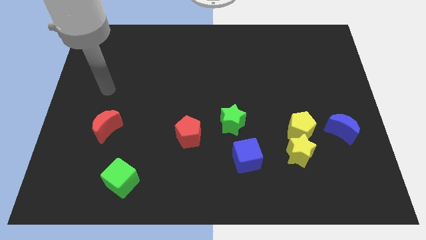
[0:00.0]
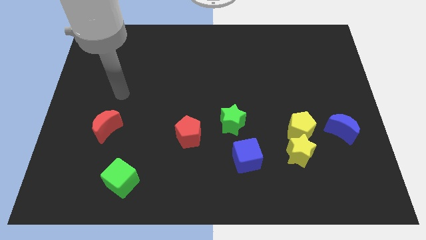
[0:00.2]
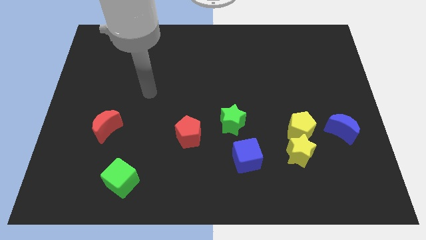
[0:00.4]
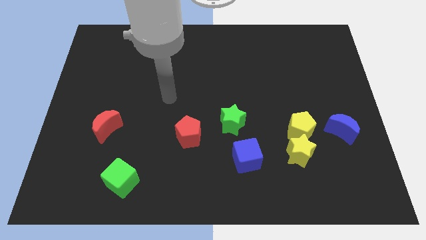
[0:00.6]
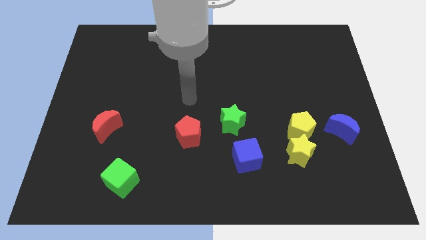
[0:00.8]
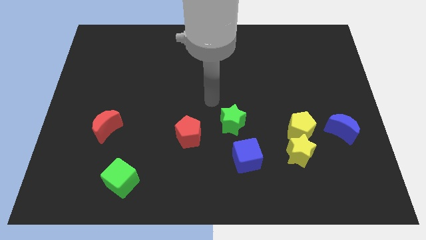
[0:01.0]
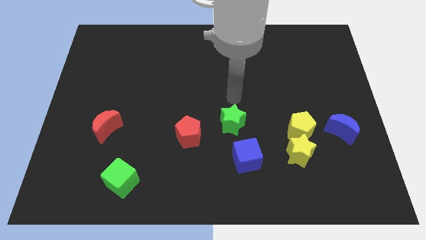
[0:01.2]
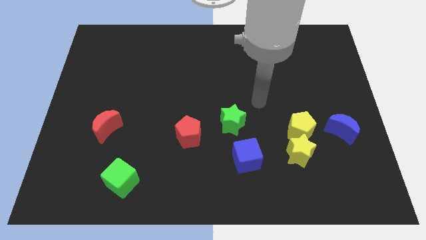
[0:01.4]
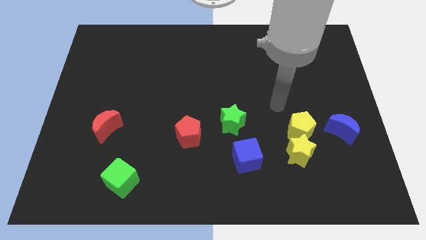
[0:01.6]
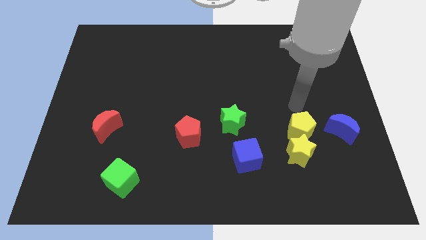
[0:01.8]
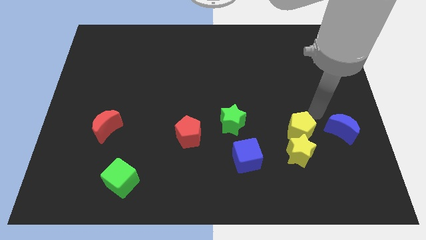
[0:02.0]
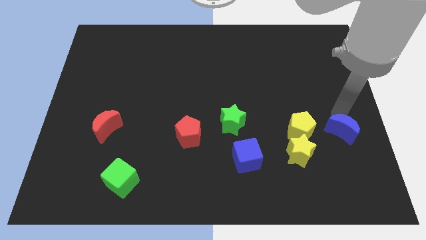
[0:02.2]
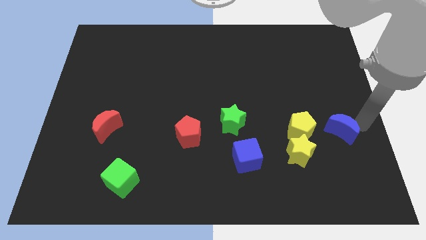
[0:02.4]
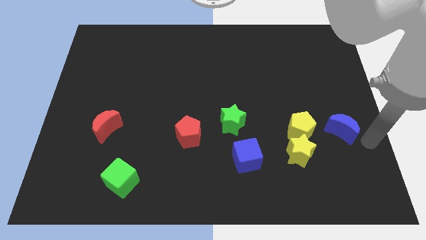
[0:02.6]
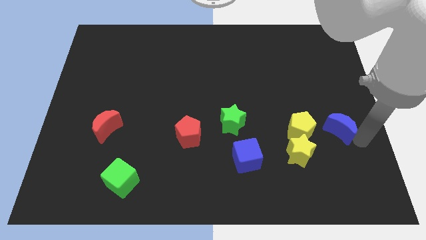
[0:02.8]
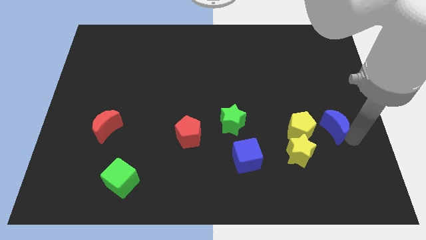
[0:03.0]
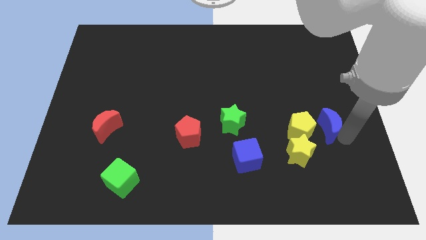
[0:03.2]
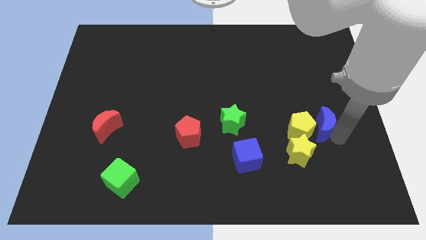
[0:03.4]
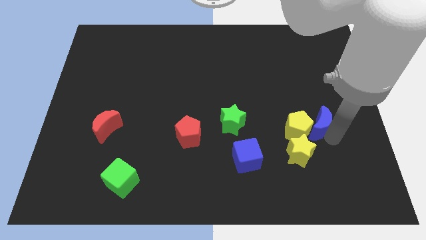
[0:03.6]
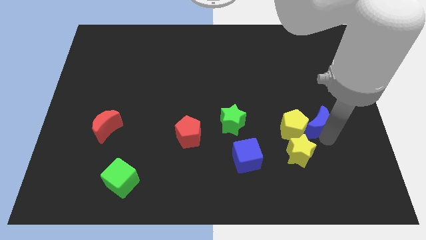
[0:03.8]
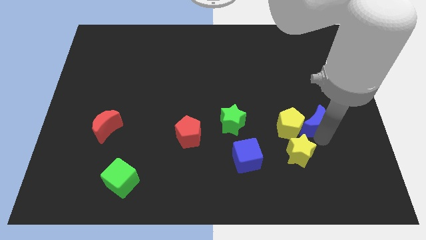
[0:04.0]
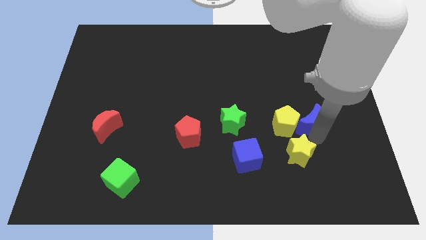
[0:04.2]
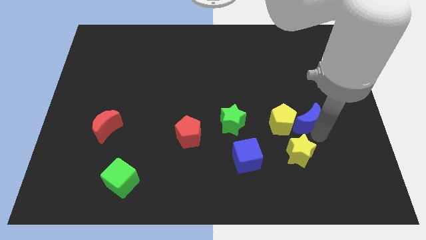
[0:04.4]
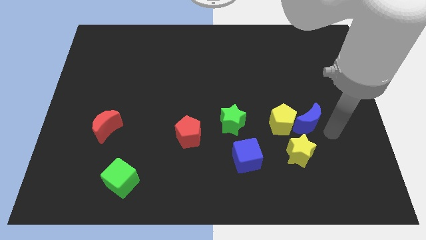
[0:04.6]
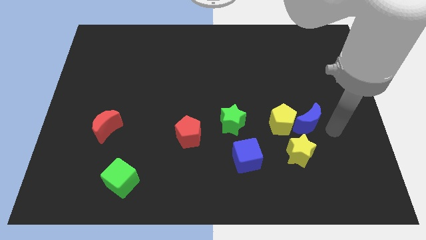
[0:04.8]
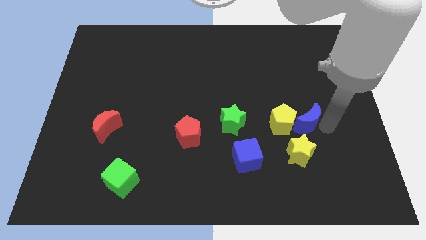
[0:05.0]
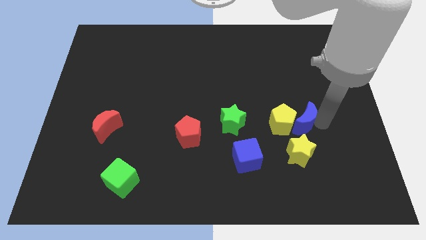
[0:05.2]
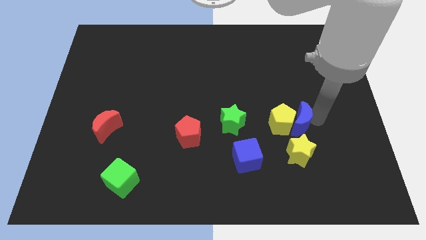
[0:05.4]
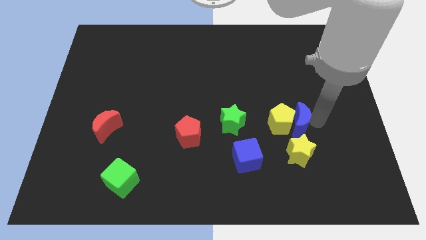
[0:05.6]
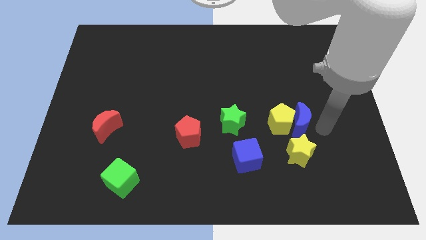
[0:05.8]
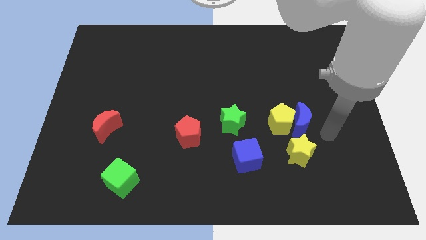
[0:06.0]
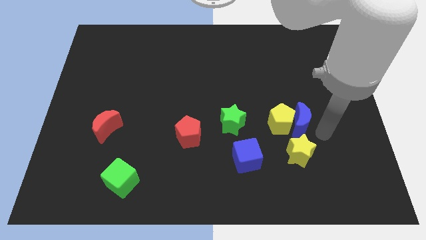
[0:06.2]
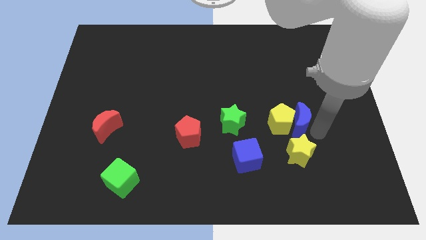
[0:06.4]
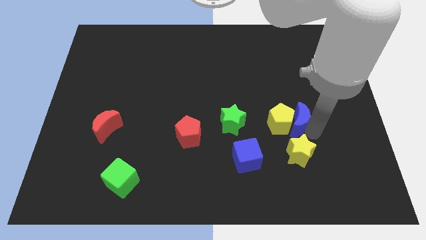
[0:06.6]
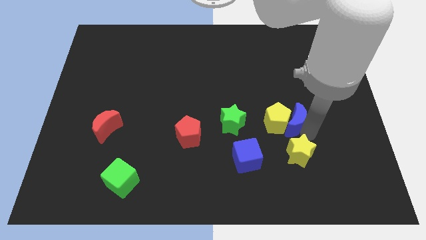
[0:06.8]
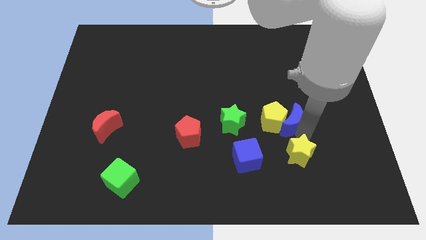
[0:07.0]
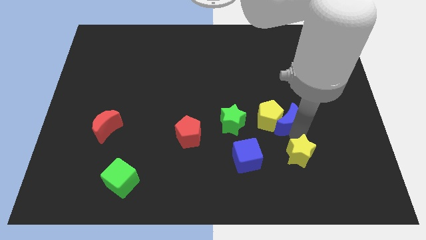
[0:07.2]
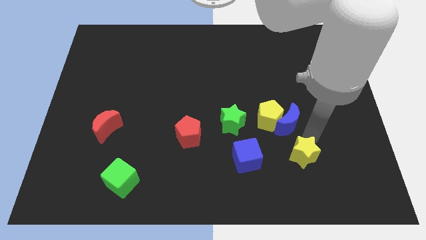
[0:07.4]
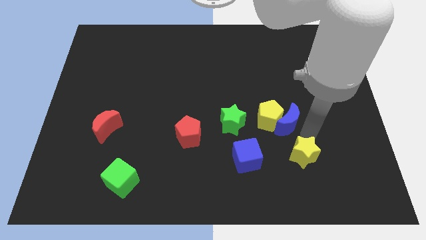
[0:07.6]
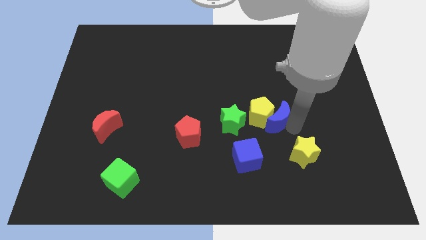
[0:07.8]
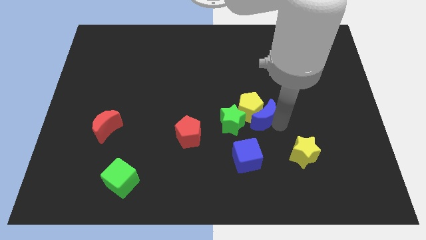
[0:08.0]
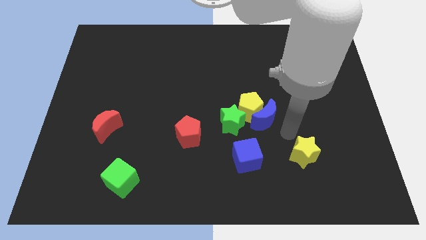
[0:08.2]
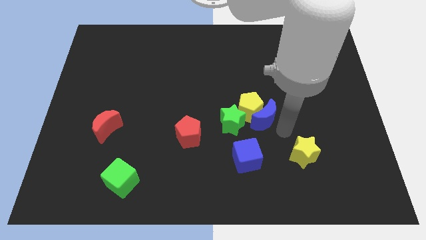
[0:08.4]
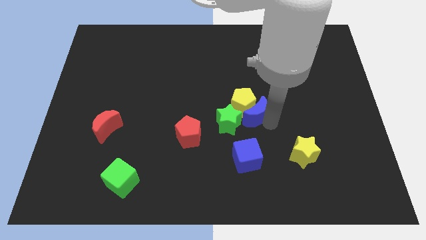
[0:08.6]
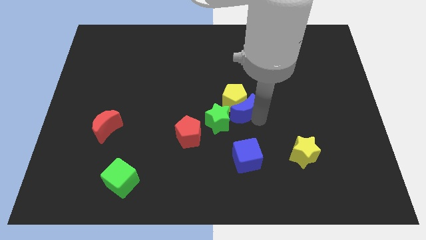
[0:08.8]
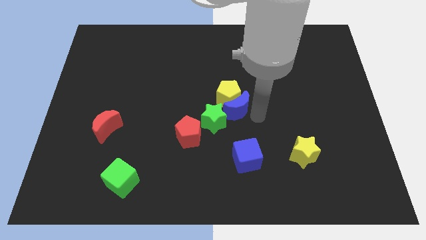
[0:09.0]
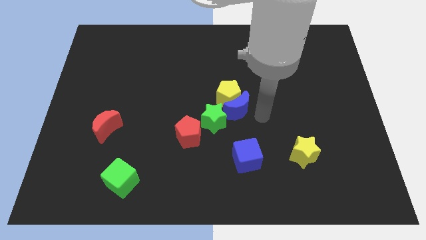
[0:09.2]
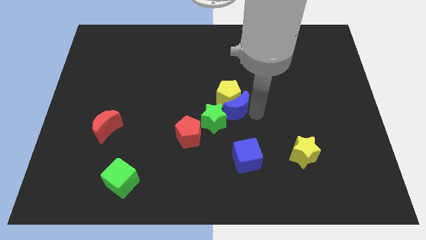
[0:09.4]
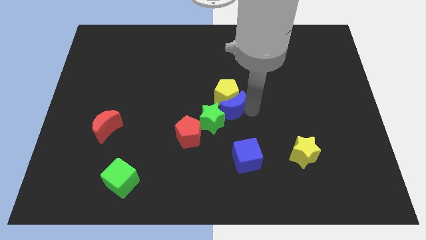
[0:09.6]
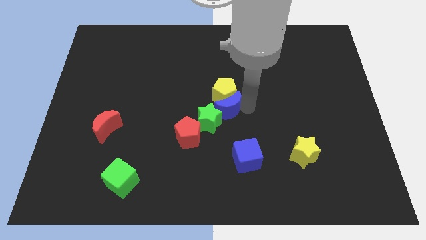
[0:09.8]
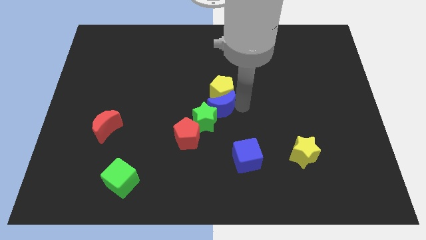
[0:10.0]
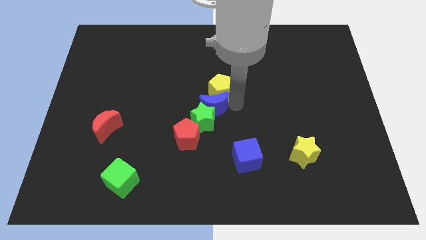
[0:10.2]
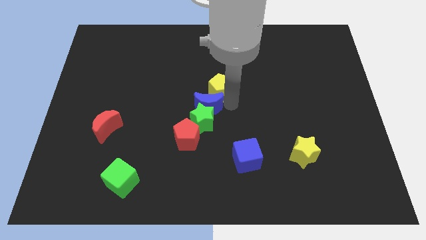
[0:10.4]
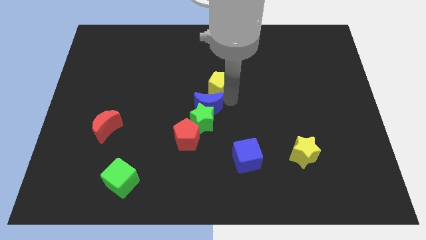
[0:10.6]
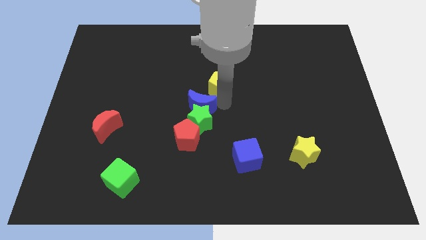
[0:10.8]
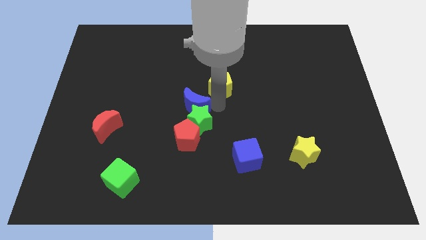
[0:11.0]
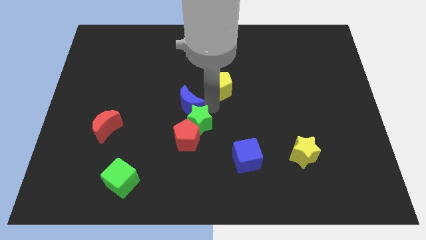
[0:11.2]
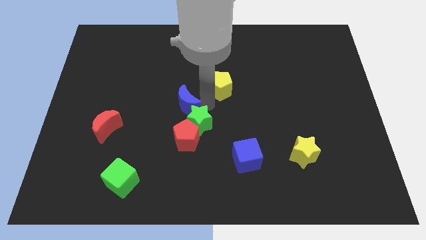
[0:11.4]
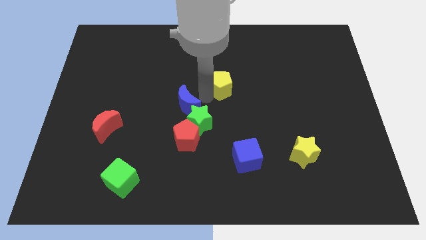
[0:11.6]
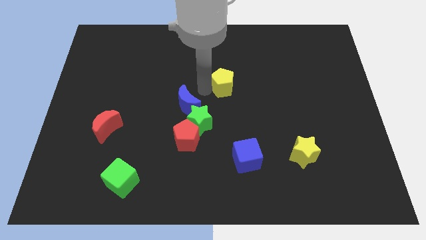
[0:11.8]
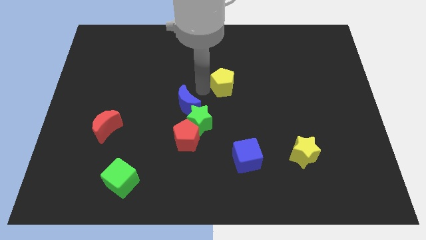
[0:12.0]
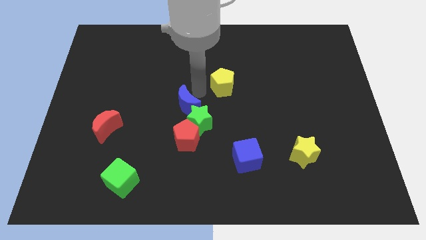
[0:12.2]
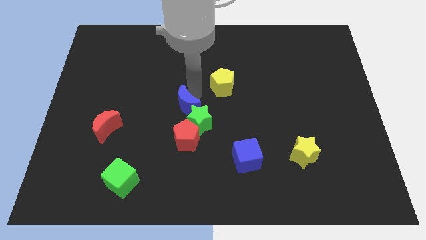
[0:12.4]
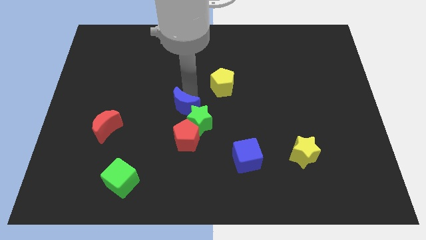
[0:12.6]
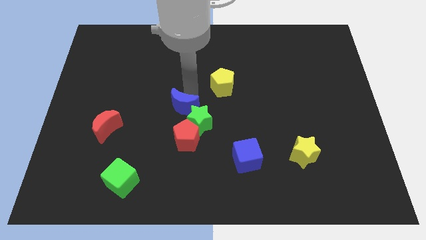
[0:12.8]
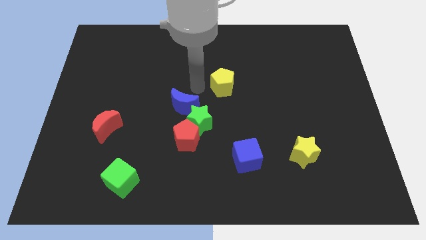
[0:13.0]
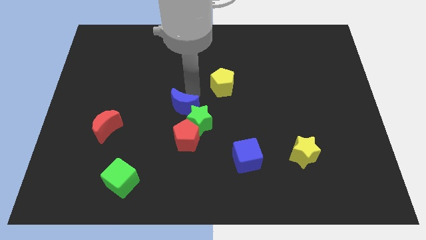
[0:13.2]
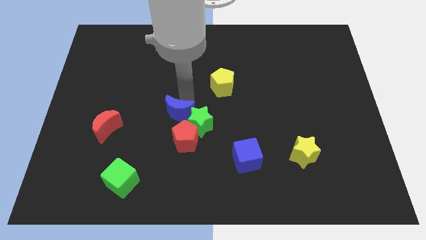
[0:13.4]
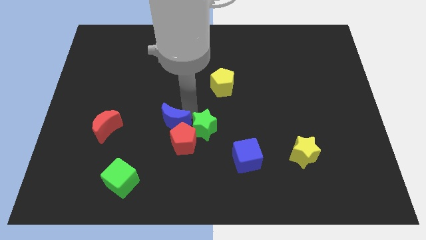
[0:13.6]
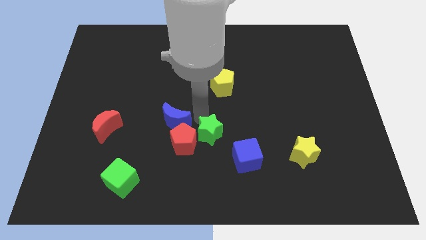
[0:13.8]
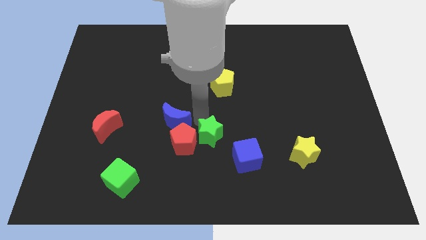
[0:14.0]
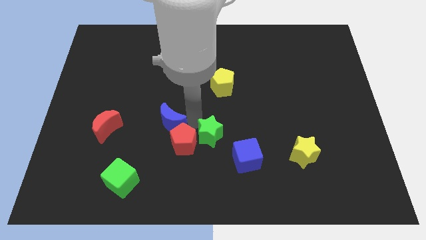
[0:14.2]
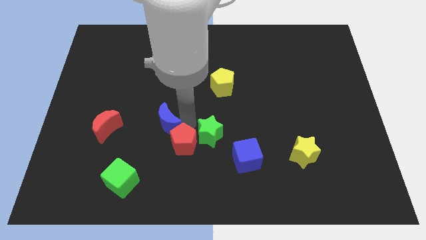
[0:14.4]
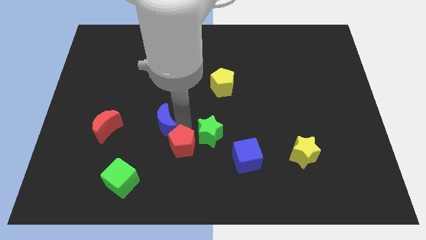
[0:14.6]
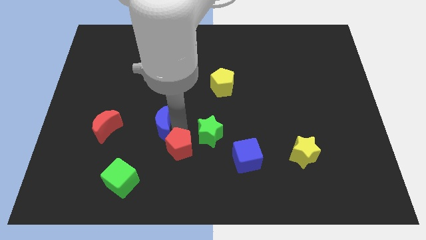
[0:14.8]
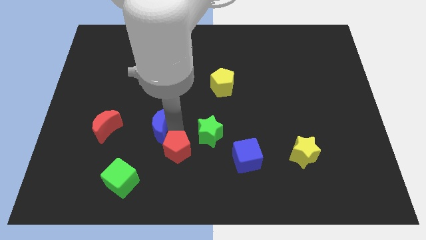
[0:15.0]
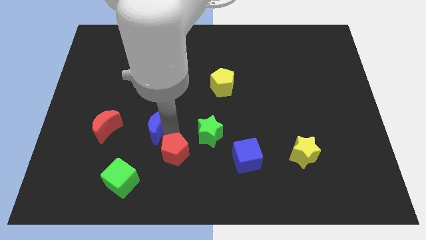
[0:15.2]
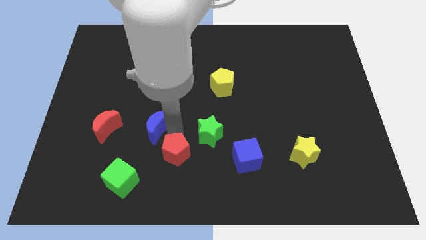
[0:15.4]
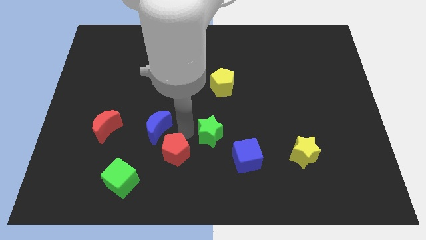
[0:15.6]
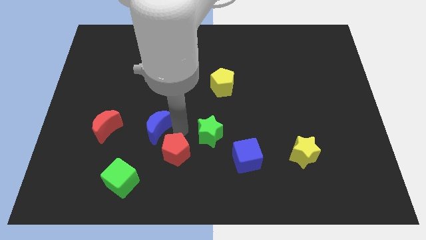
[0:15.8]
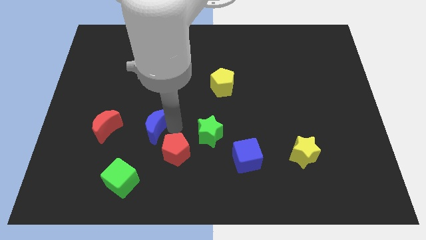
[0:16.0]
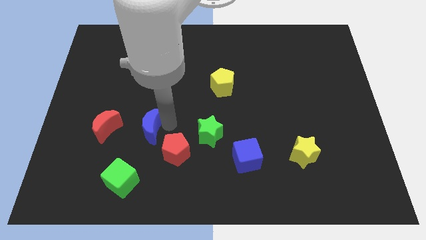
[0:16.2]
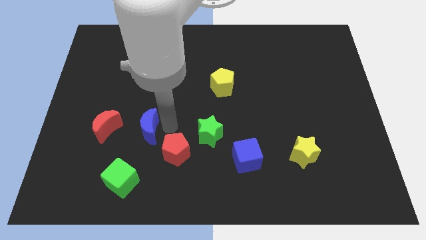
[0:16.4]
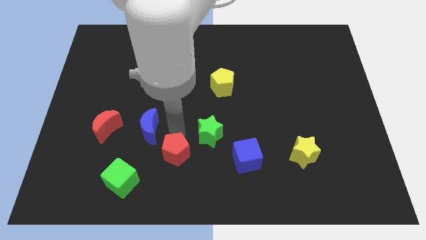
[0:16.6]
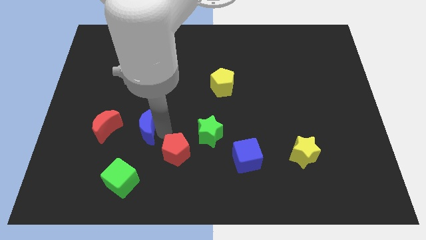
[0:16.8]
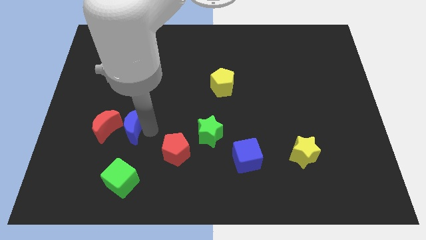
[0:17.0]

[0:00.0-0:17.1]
move the blue moon to the red moon
